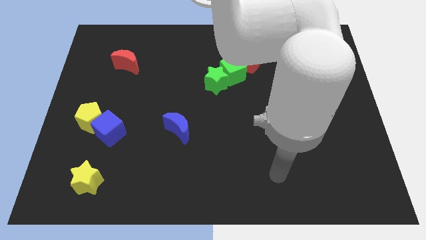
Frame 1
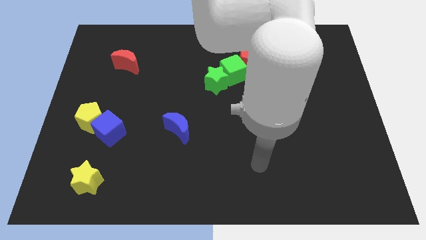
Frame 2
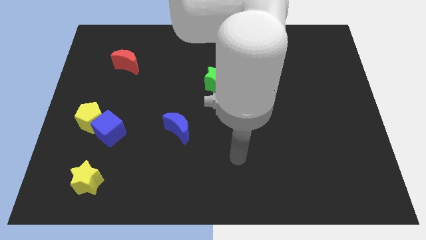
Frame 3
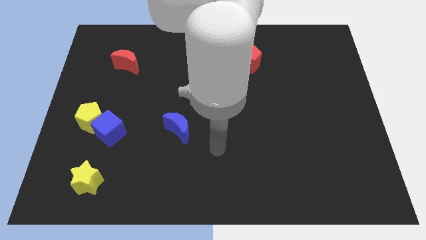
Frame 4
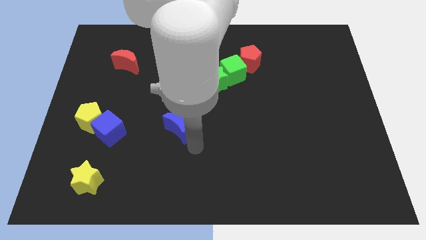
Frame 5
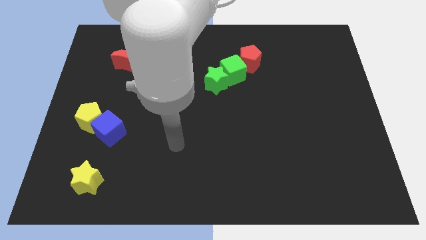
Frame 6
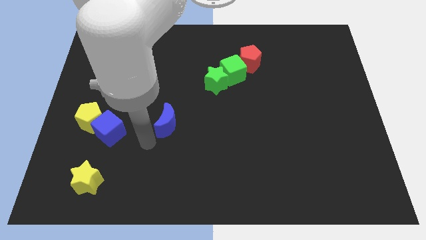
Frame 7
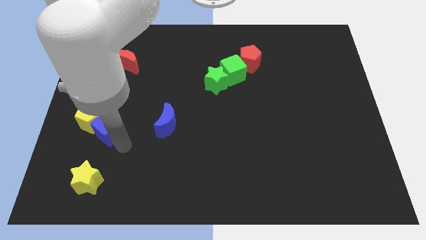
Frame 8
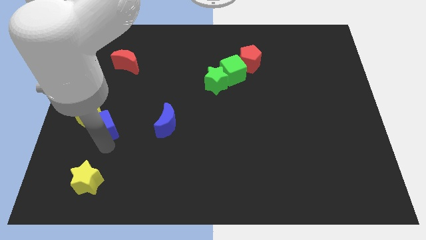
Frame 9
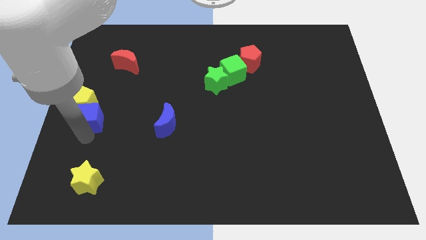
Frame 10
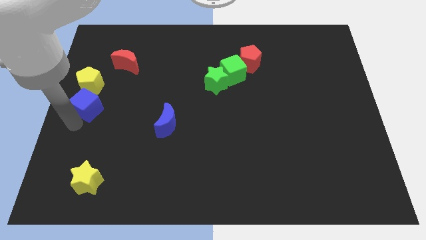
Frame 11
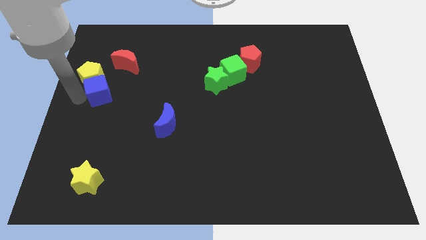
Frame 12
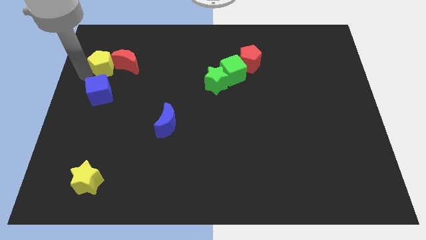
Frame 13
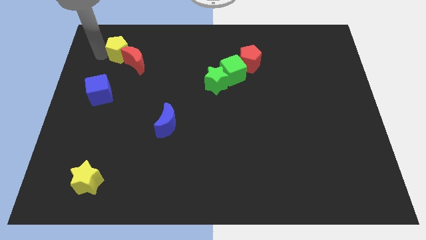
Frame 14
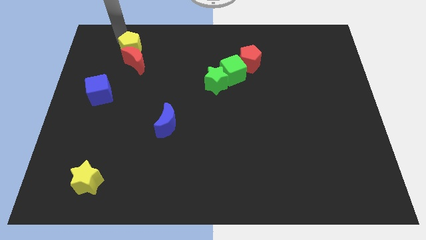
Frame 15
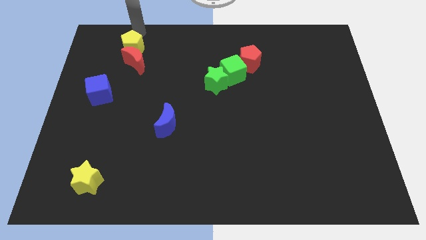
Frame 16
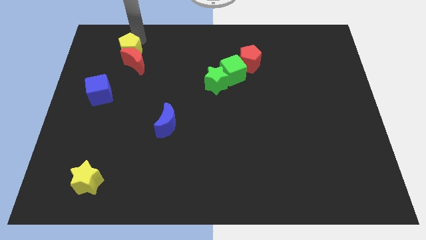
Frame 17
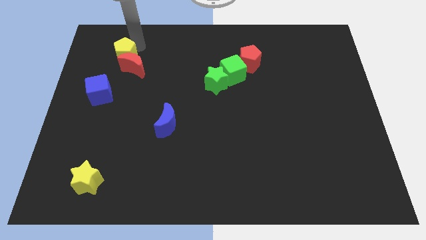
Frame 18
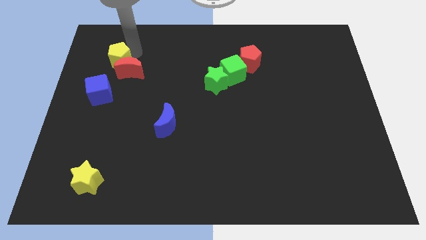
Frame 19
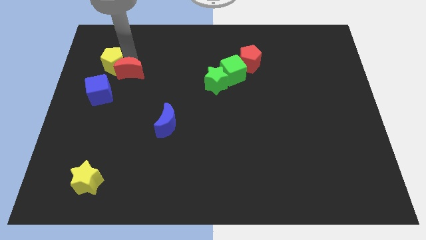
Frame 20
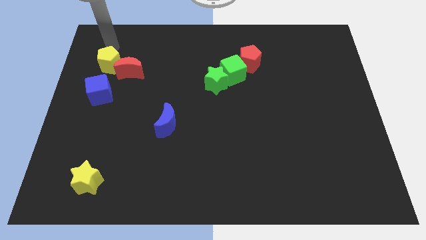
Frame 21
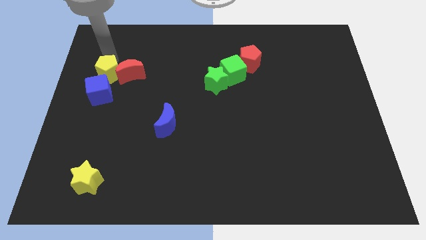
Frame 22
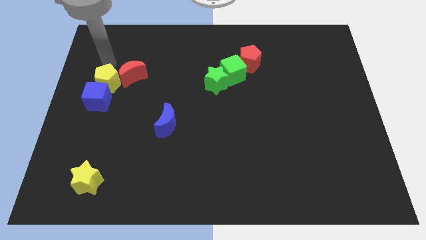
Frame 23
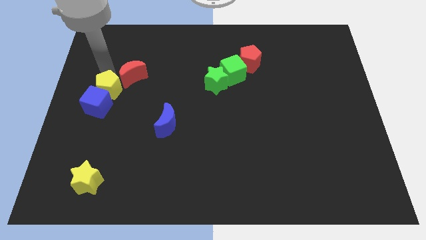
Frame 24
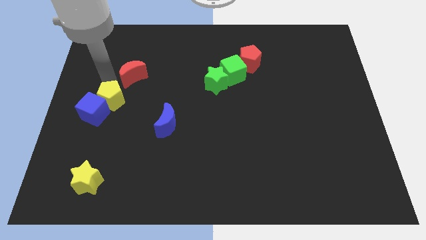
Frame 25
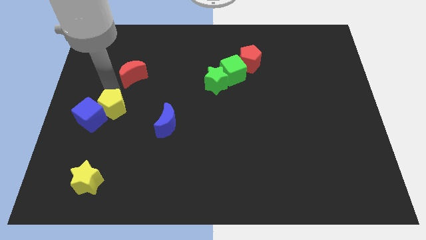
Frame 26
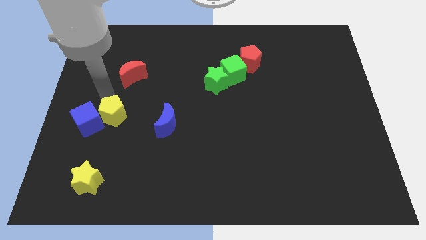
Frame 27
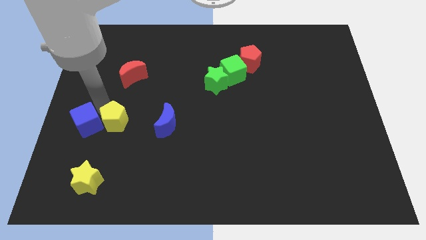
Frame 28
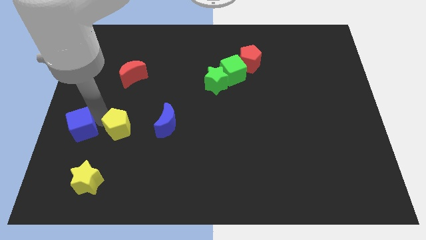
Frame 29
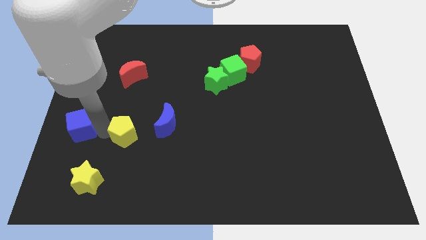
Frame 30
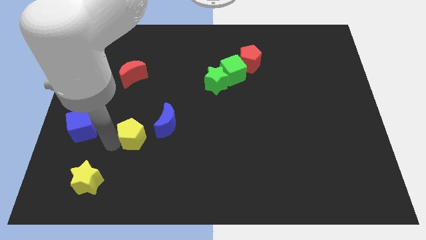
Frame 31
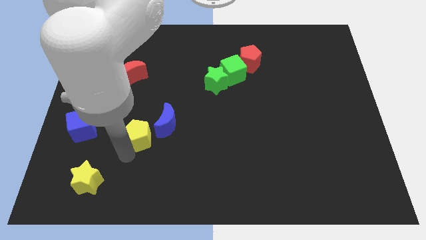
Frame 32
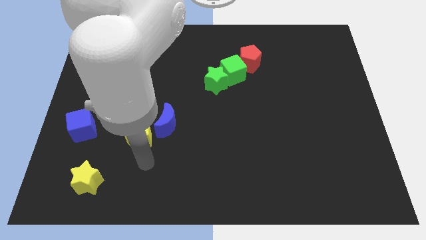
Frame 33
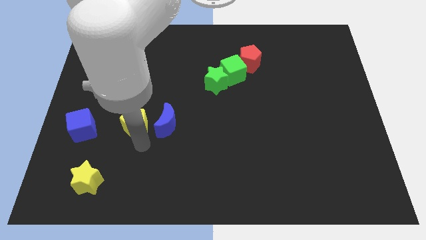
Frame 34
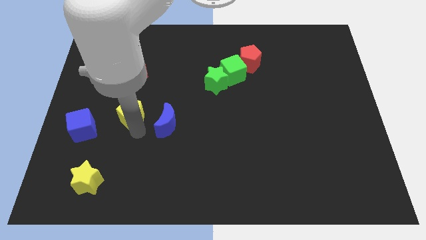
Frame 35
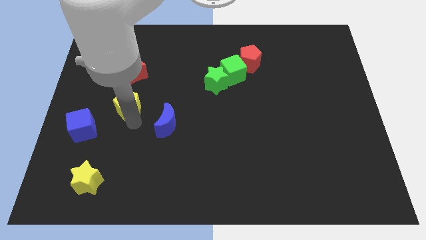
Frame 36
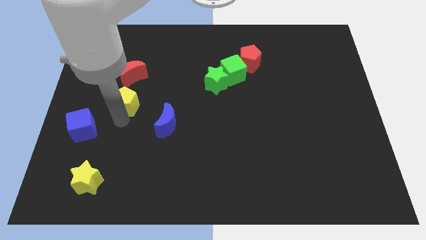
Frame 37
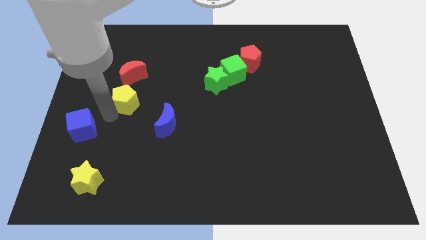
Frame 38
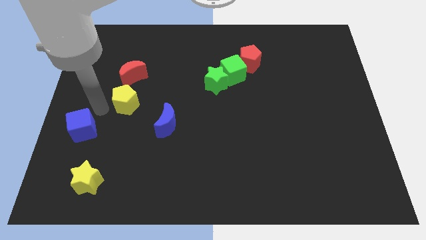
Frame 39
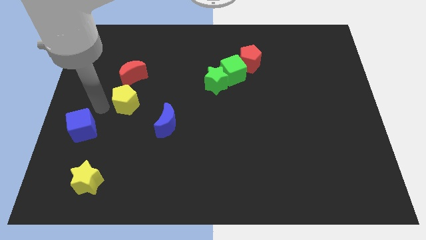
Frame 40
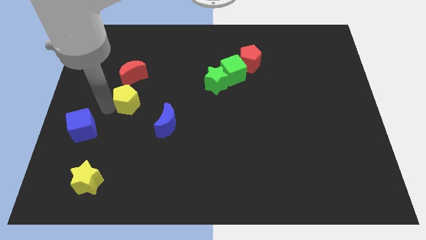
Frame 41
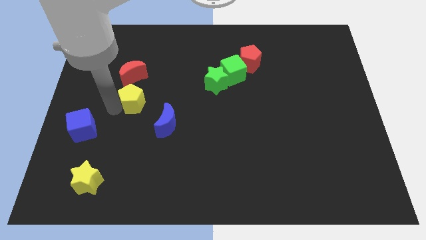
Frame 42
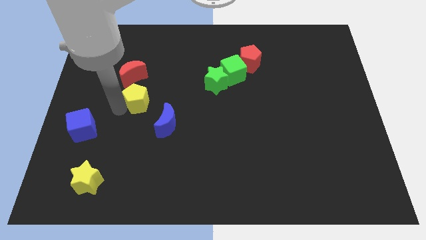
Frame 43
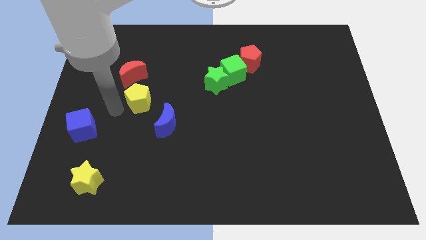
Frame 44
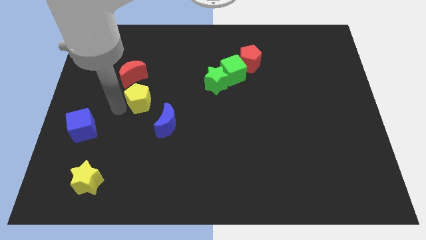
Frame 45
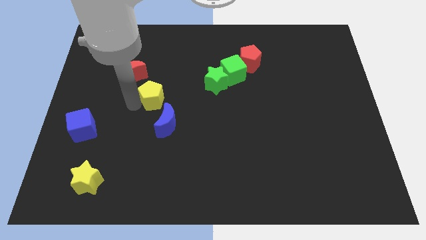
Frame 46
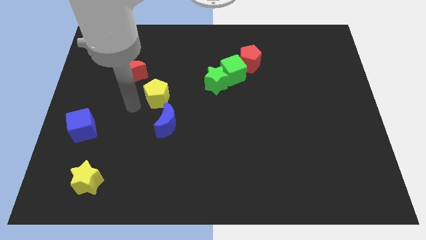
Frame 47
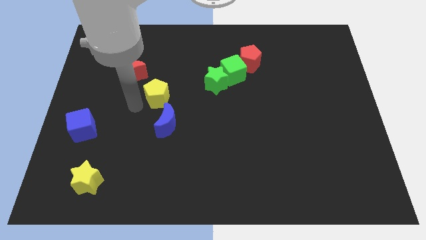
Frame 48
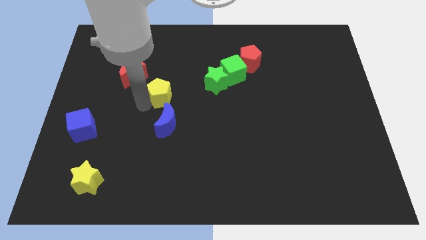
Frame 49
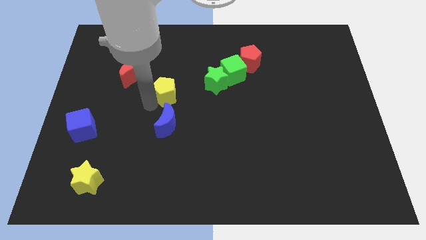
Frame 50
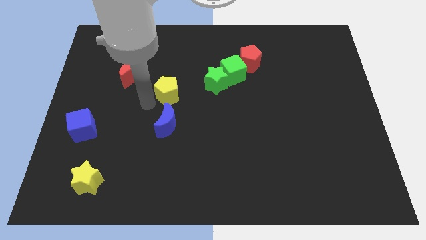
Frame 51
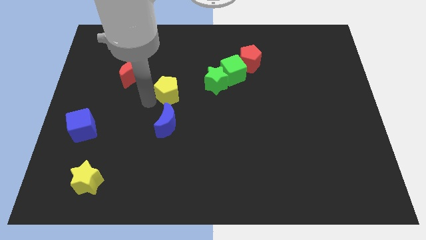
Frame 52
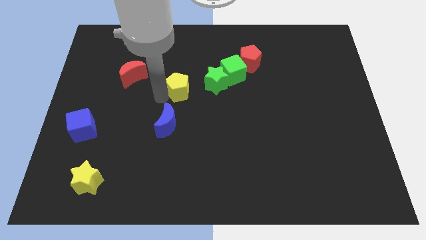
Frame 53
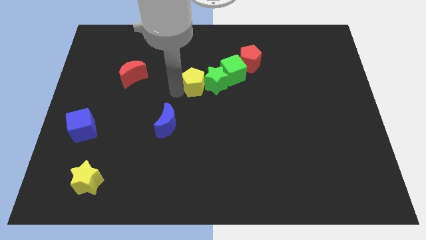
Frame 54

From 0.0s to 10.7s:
push the yellow pentagon towards the green star

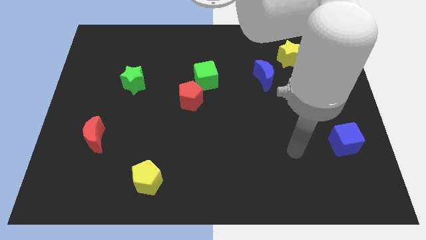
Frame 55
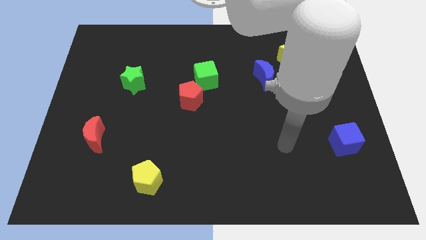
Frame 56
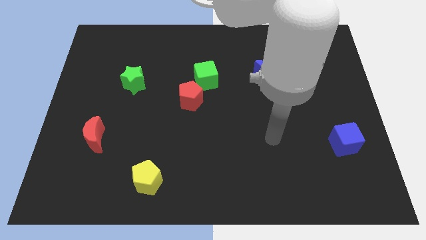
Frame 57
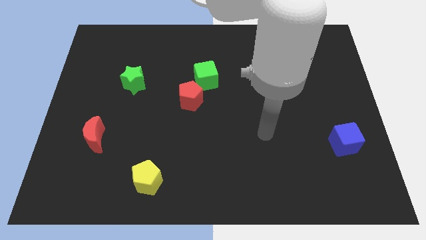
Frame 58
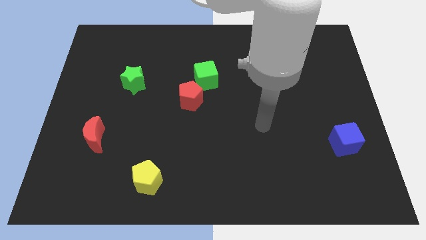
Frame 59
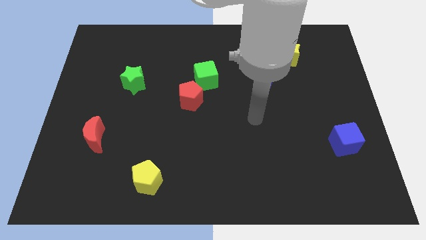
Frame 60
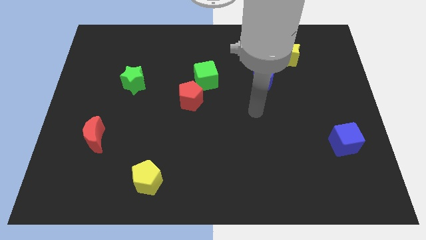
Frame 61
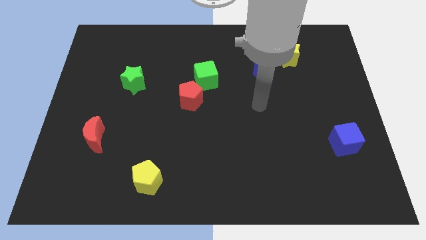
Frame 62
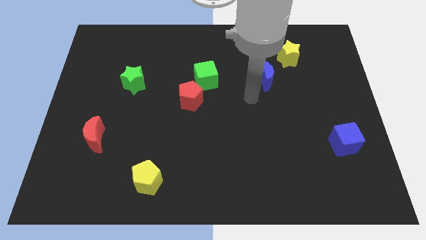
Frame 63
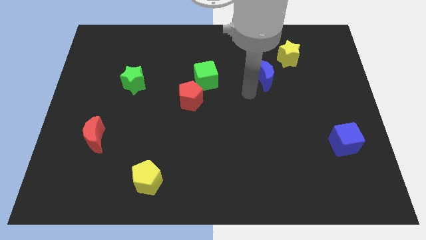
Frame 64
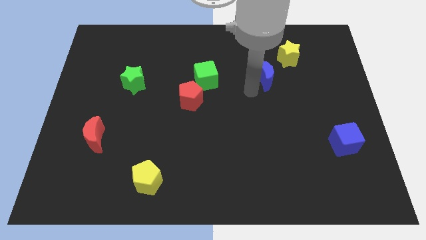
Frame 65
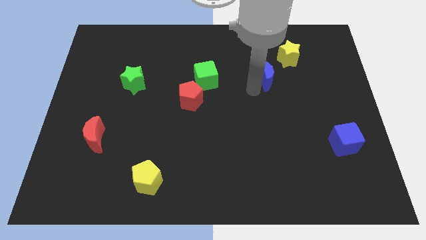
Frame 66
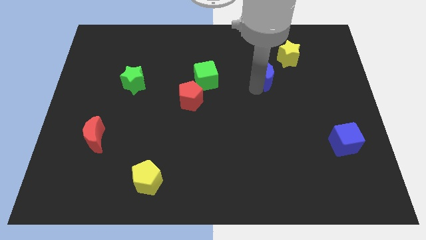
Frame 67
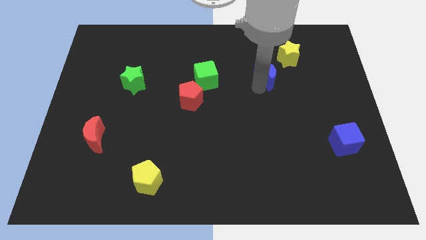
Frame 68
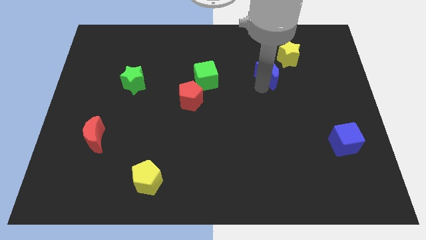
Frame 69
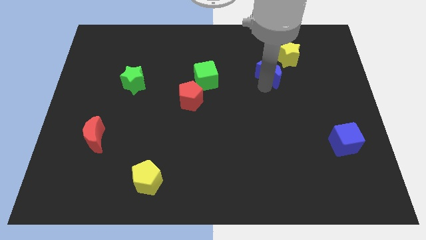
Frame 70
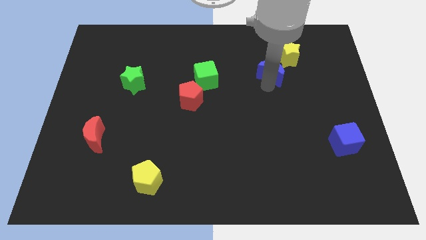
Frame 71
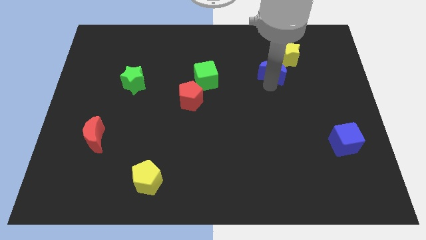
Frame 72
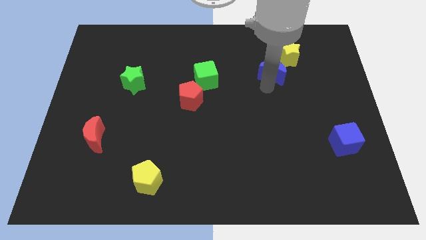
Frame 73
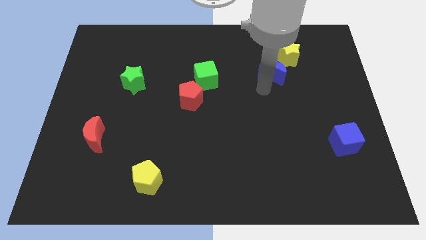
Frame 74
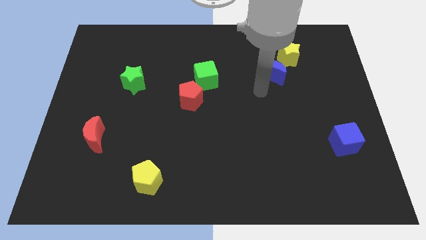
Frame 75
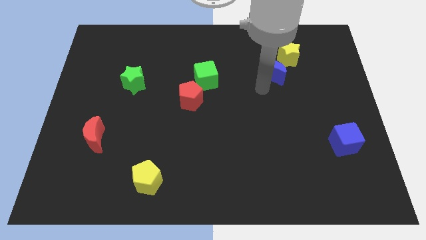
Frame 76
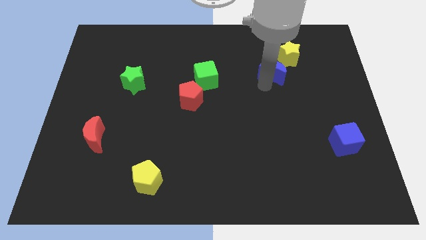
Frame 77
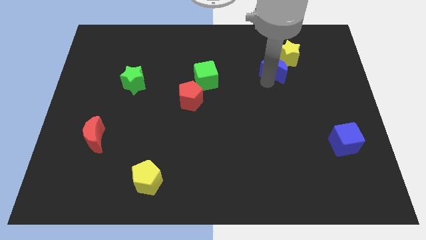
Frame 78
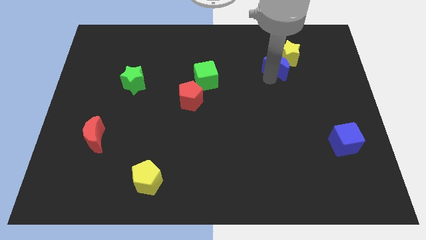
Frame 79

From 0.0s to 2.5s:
move the blue moon to the yellow star
